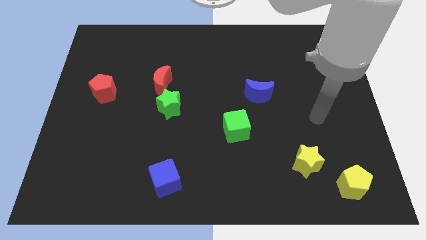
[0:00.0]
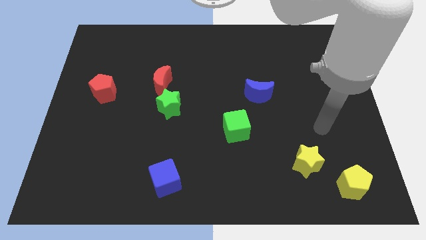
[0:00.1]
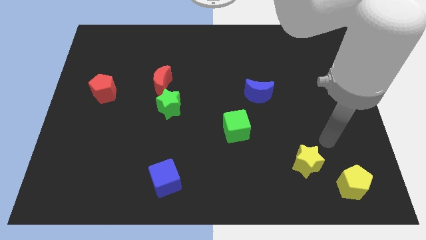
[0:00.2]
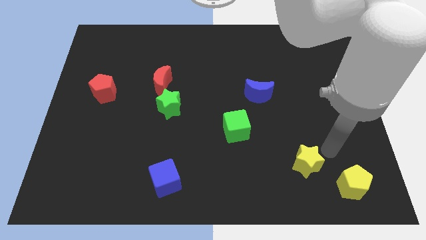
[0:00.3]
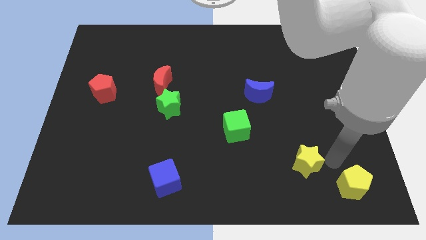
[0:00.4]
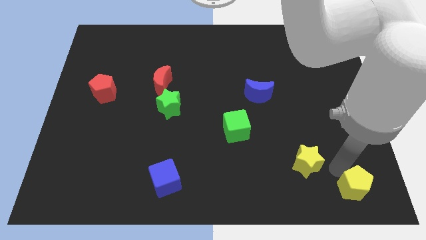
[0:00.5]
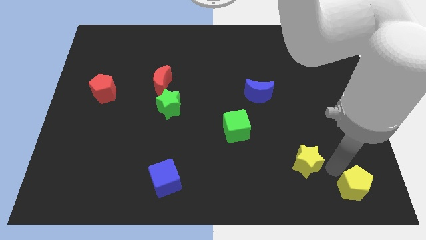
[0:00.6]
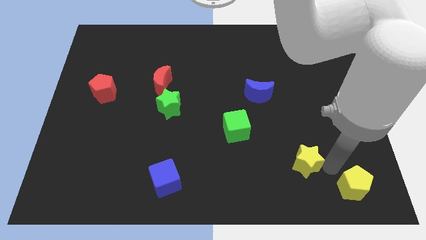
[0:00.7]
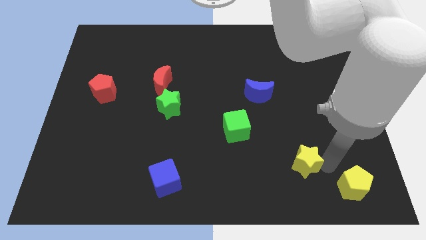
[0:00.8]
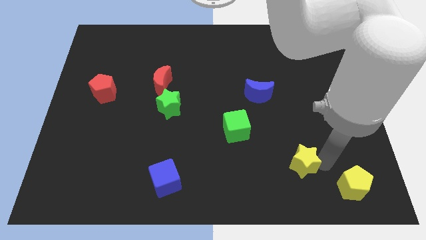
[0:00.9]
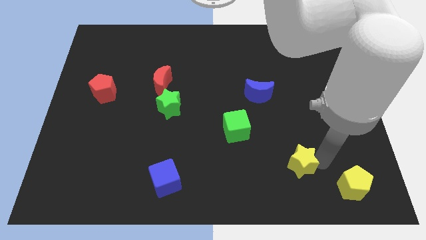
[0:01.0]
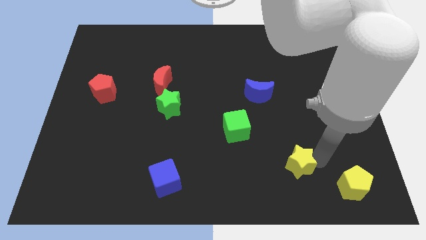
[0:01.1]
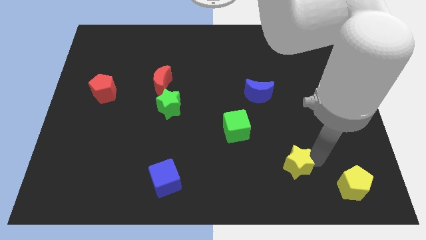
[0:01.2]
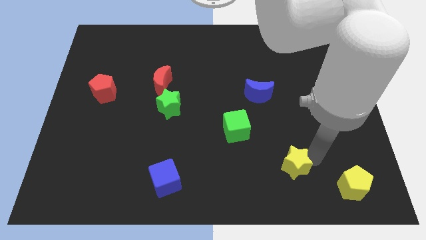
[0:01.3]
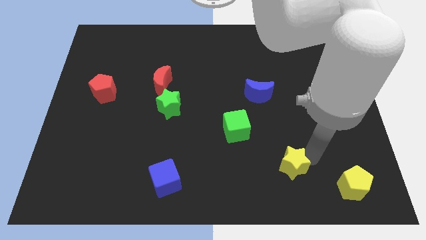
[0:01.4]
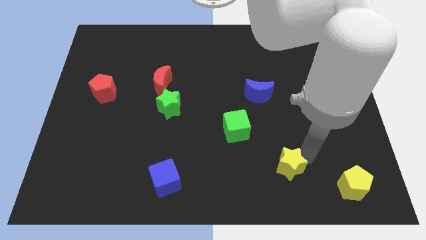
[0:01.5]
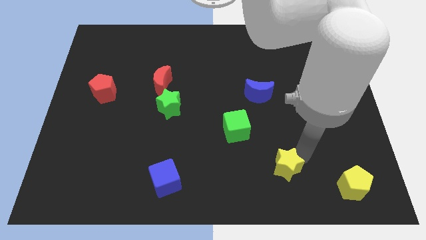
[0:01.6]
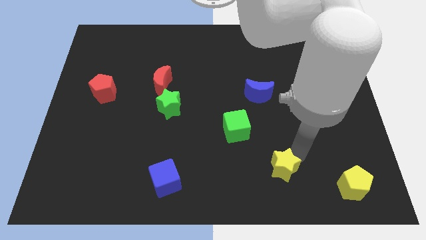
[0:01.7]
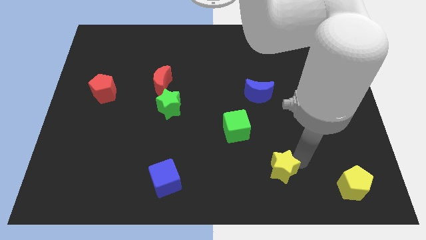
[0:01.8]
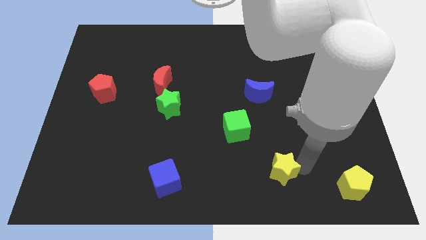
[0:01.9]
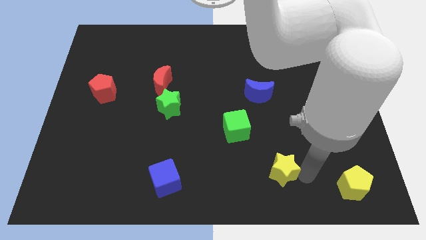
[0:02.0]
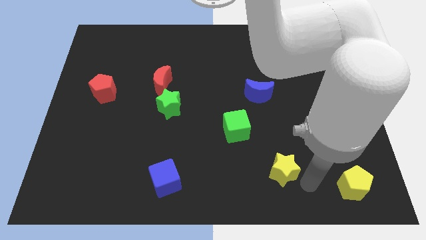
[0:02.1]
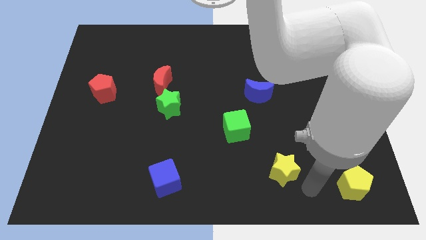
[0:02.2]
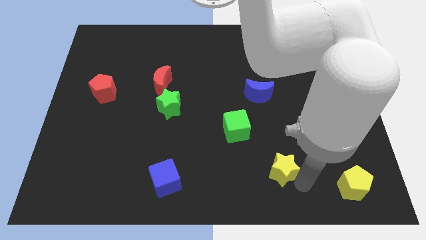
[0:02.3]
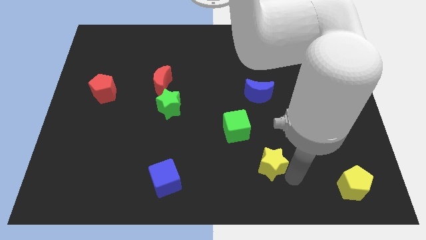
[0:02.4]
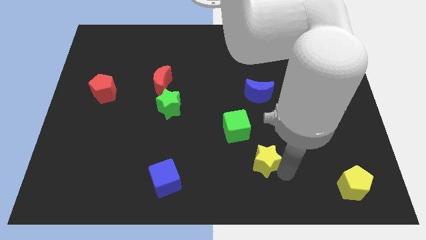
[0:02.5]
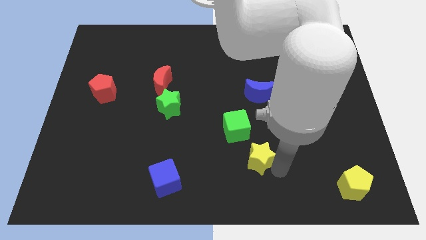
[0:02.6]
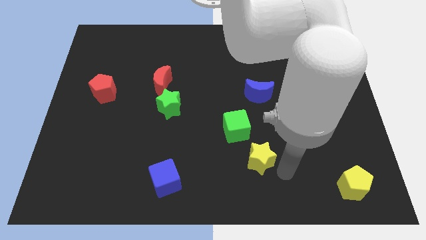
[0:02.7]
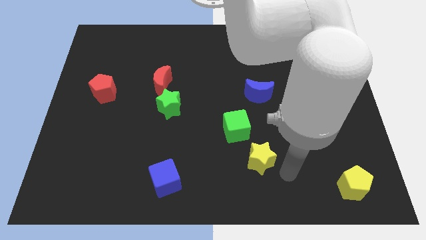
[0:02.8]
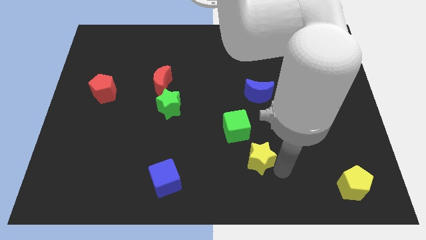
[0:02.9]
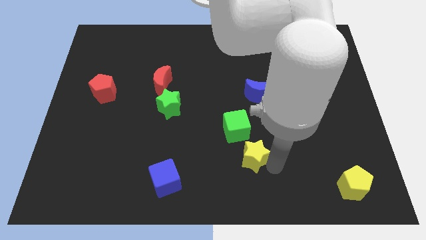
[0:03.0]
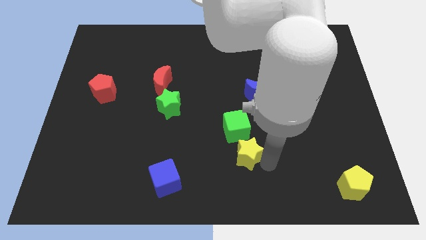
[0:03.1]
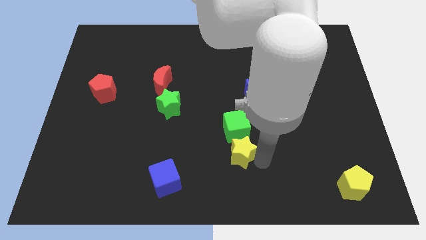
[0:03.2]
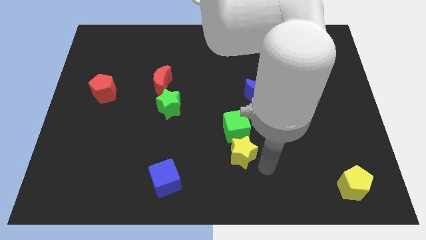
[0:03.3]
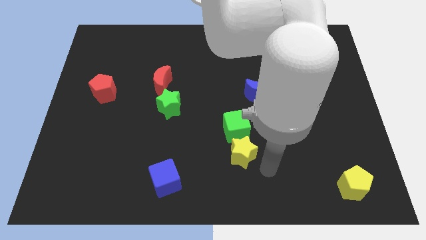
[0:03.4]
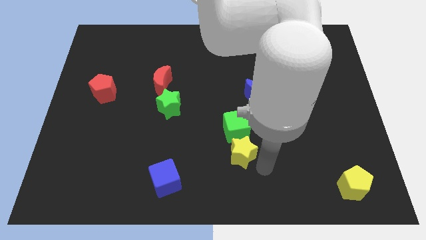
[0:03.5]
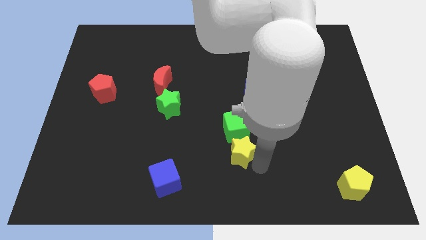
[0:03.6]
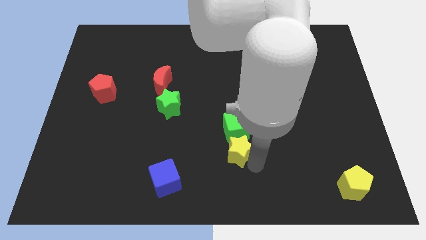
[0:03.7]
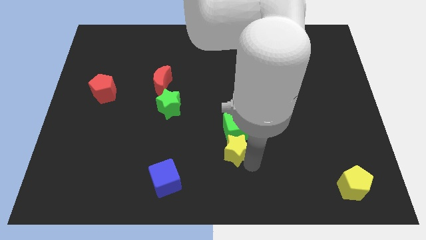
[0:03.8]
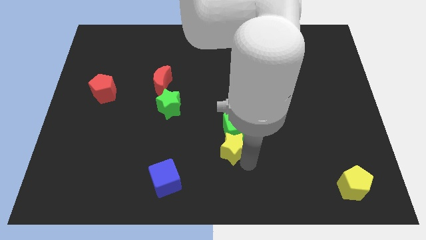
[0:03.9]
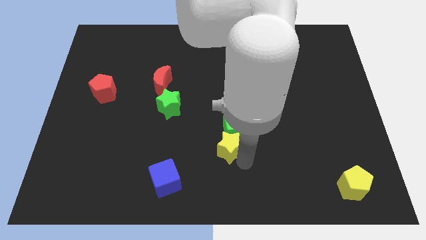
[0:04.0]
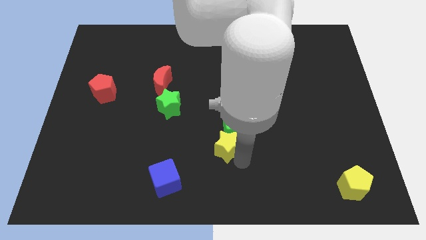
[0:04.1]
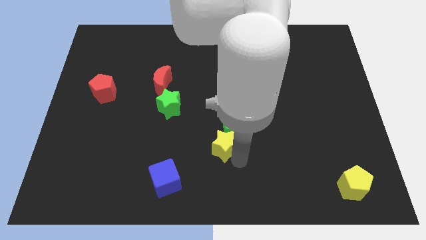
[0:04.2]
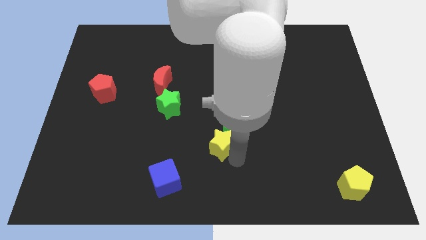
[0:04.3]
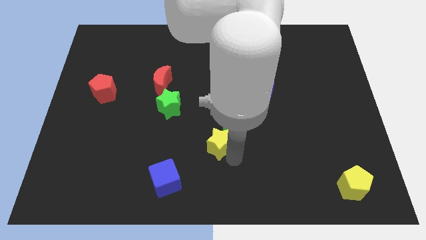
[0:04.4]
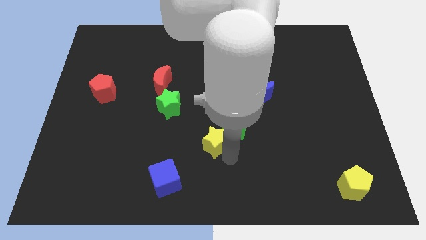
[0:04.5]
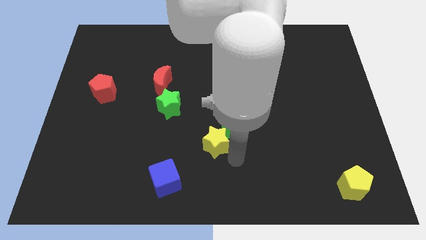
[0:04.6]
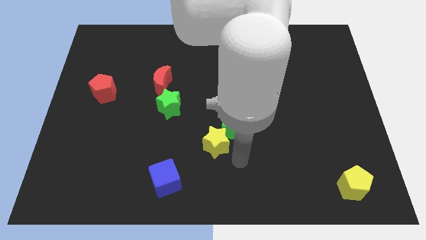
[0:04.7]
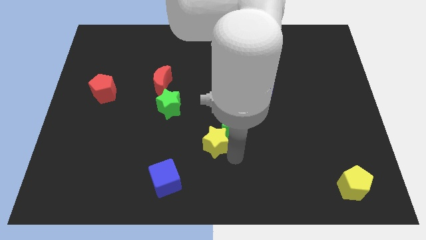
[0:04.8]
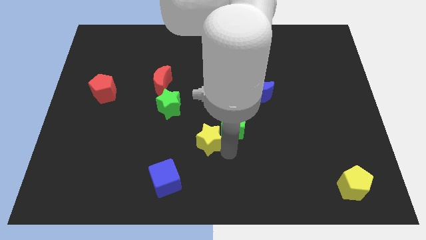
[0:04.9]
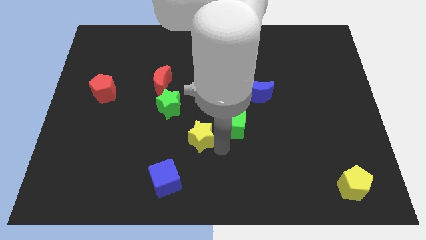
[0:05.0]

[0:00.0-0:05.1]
move the yellow star to the bottom right of the green star

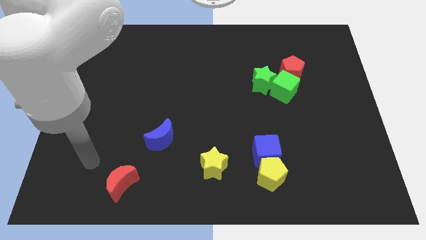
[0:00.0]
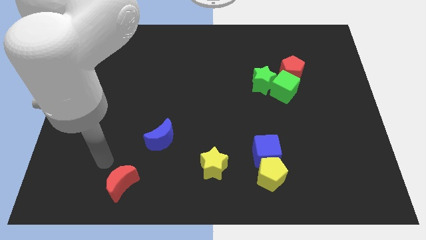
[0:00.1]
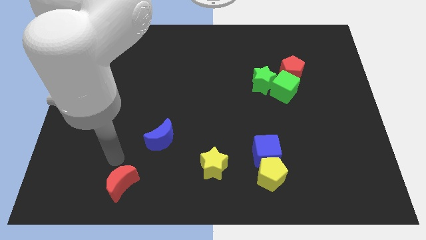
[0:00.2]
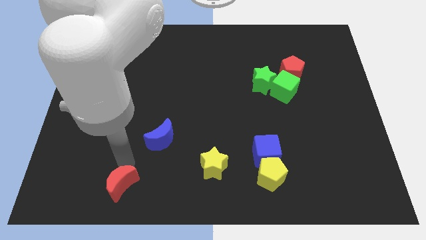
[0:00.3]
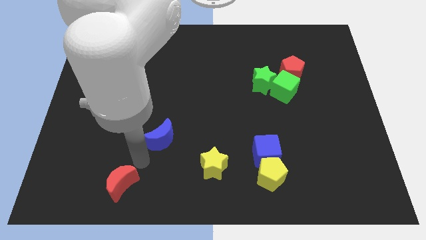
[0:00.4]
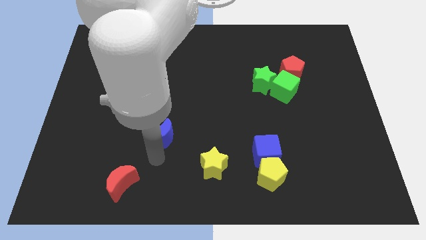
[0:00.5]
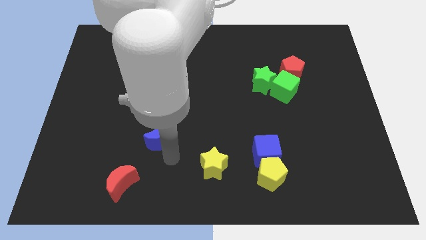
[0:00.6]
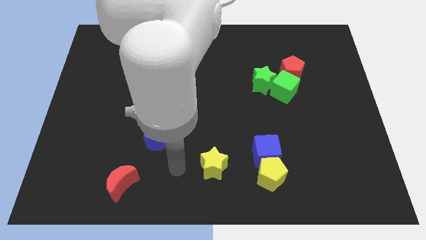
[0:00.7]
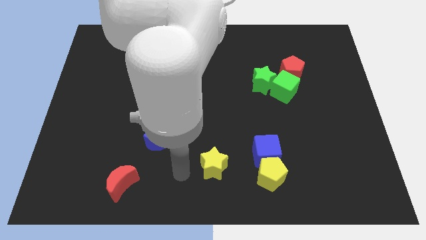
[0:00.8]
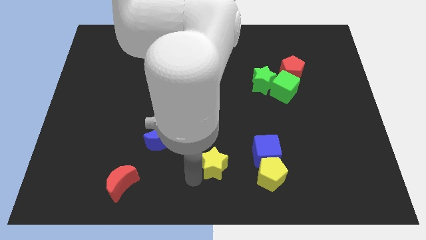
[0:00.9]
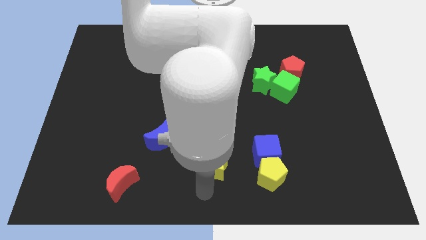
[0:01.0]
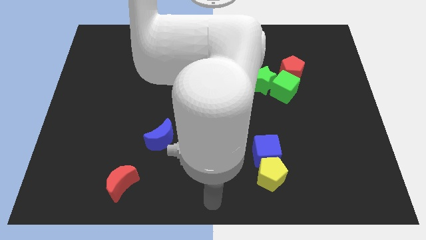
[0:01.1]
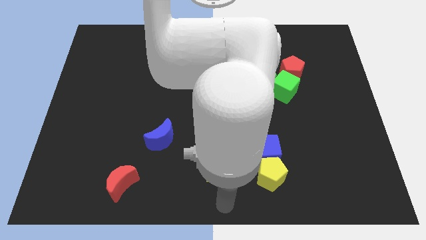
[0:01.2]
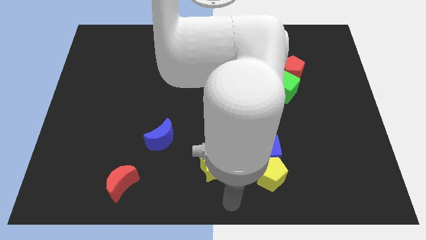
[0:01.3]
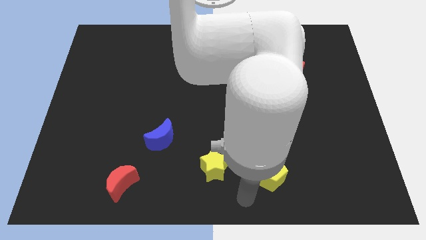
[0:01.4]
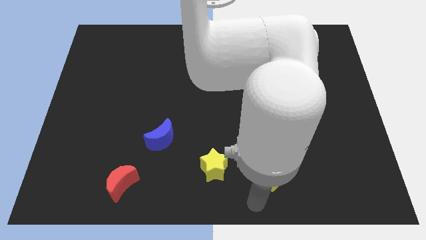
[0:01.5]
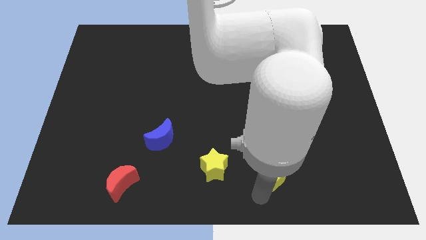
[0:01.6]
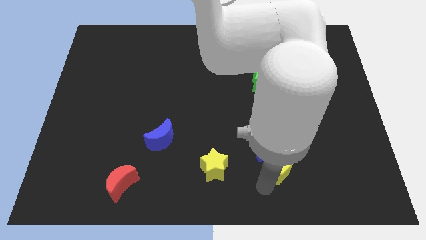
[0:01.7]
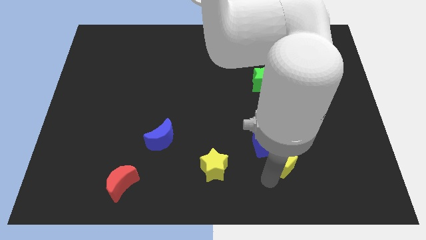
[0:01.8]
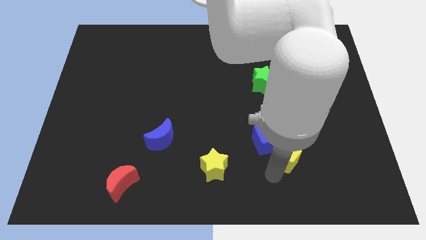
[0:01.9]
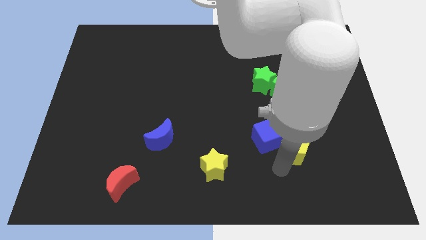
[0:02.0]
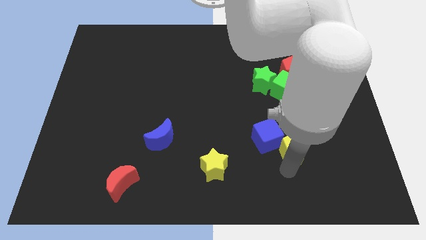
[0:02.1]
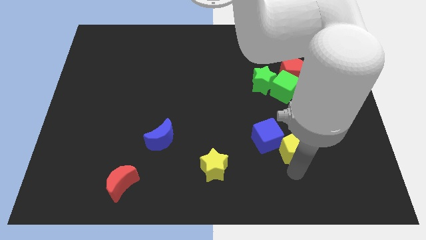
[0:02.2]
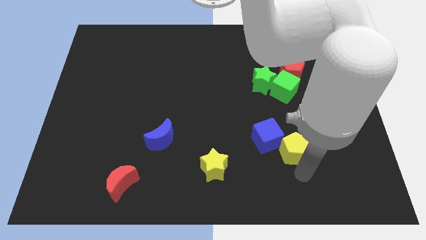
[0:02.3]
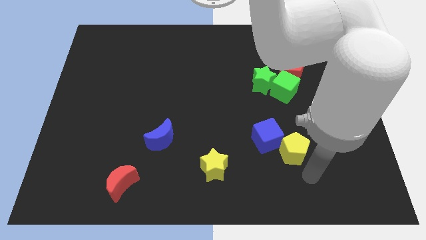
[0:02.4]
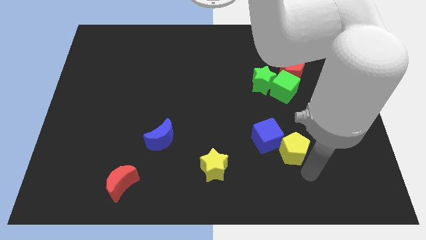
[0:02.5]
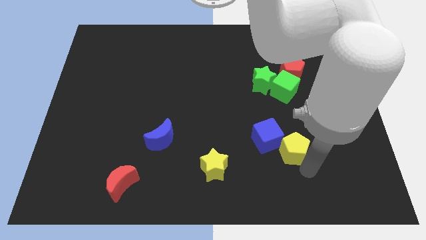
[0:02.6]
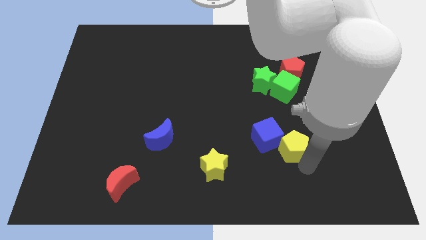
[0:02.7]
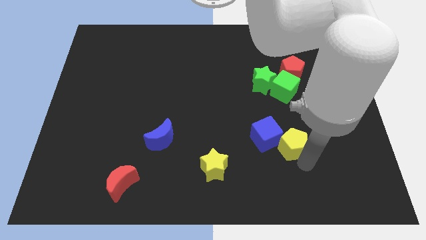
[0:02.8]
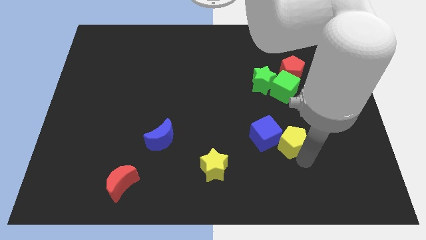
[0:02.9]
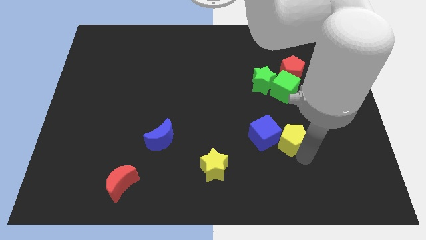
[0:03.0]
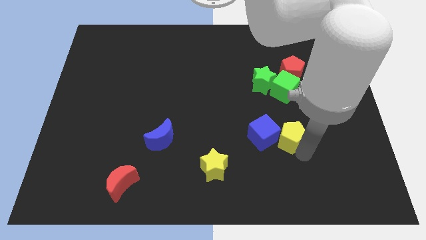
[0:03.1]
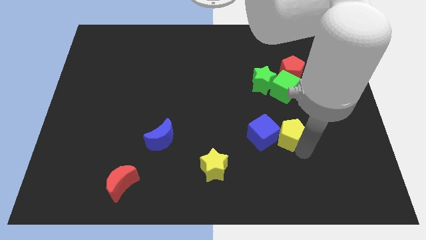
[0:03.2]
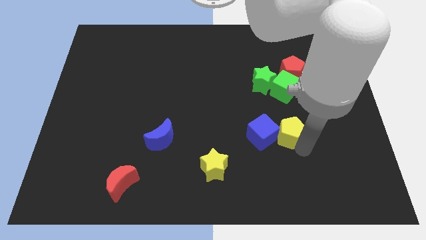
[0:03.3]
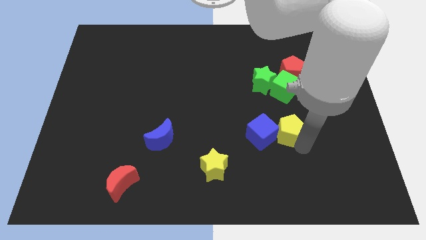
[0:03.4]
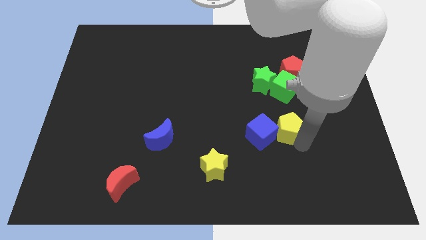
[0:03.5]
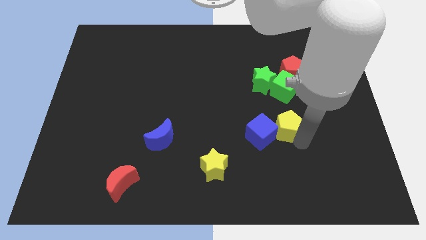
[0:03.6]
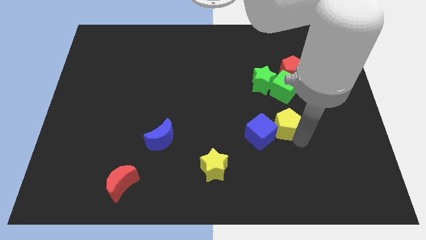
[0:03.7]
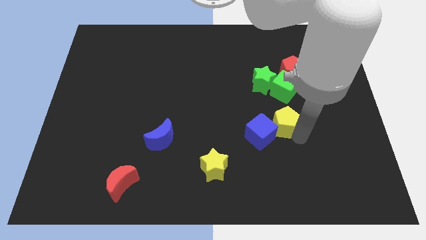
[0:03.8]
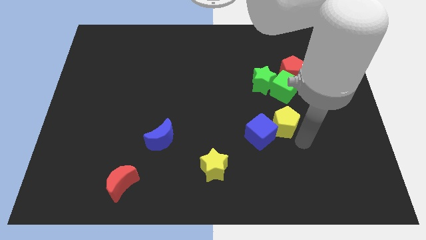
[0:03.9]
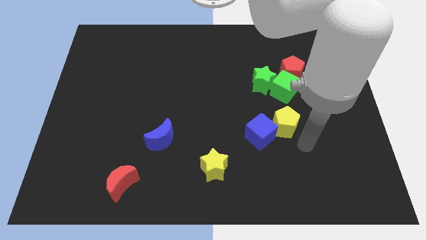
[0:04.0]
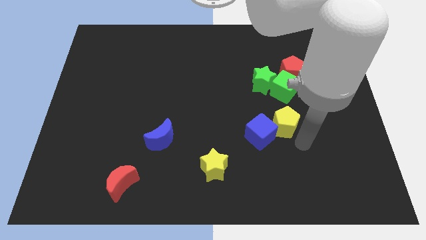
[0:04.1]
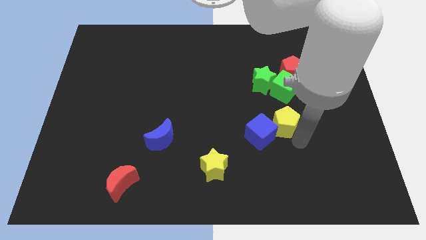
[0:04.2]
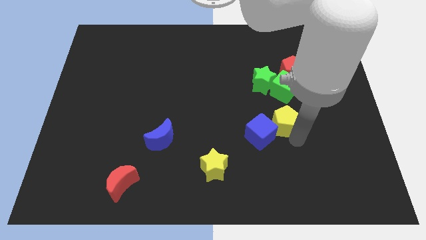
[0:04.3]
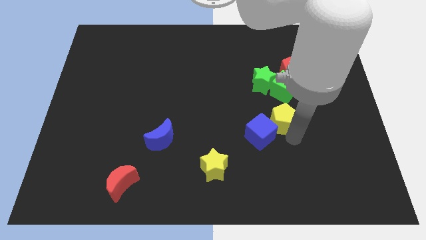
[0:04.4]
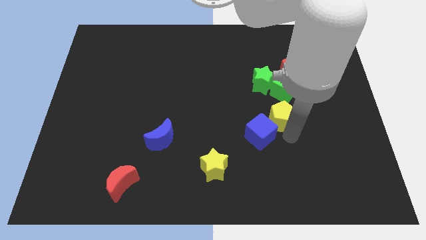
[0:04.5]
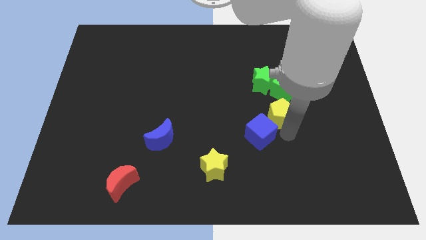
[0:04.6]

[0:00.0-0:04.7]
slide the yellow pentagon to the bottom left side of the green cube
